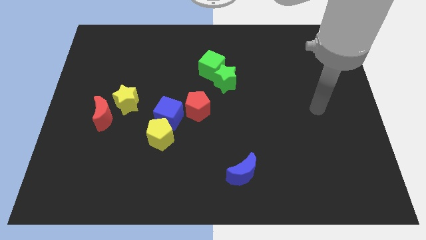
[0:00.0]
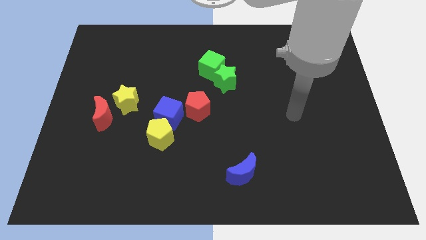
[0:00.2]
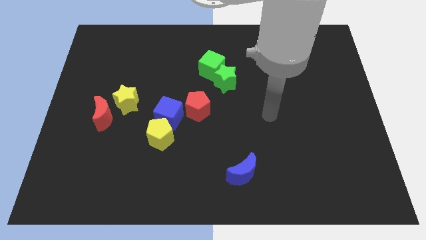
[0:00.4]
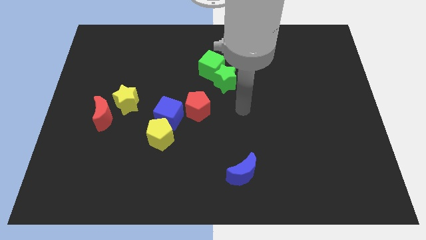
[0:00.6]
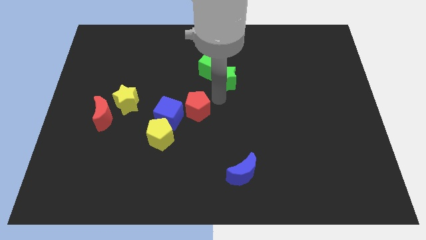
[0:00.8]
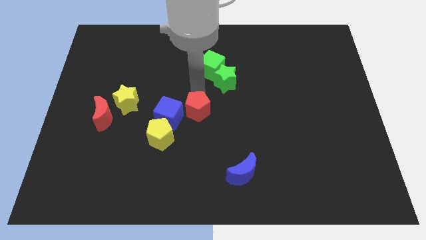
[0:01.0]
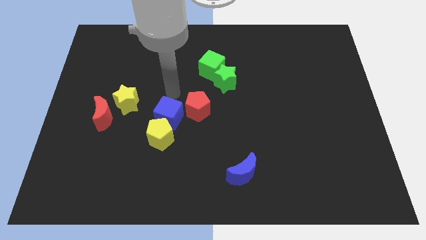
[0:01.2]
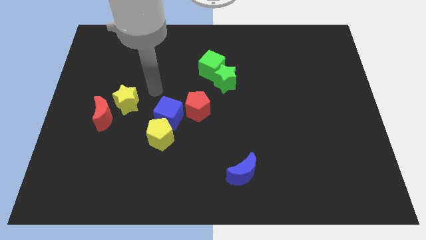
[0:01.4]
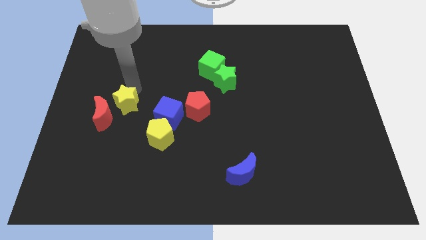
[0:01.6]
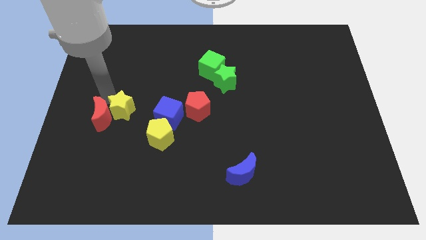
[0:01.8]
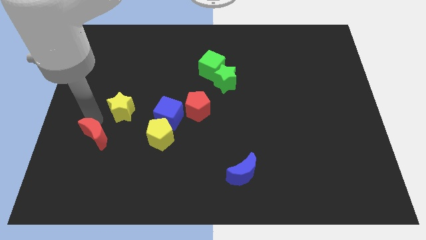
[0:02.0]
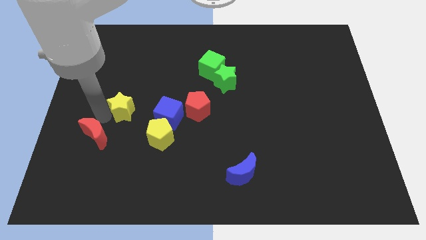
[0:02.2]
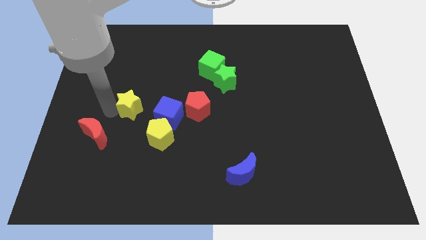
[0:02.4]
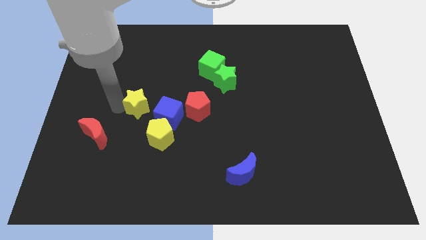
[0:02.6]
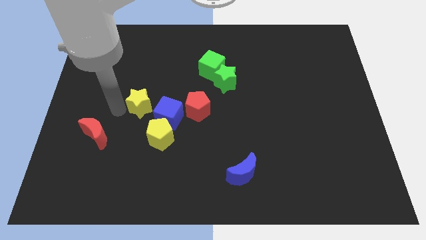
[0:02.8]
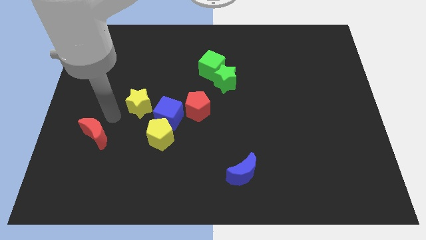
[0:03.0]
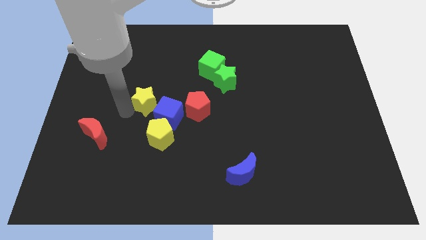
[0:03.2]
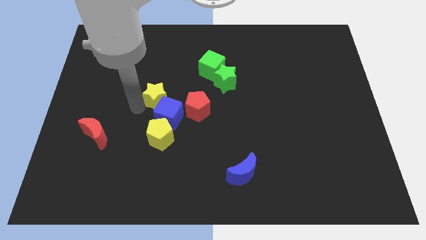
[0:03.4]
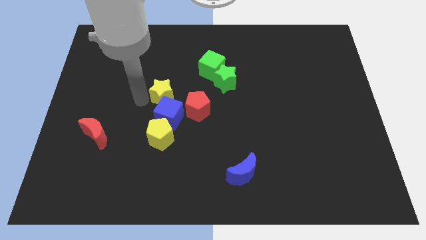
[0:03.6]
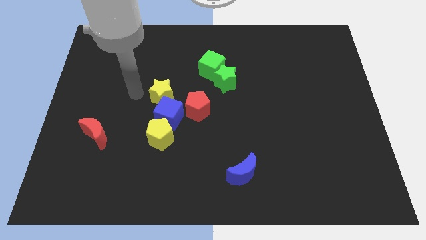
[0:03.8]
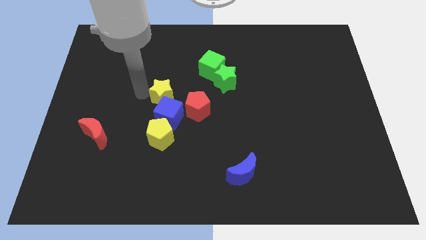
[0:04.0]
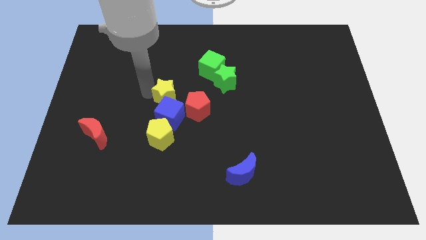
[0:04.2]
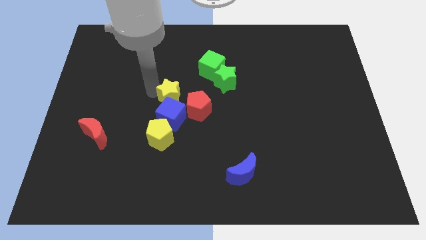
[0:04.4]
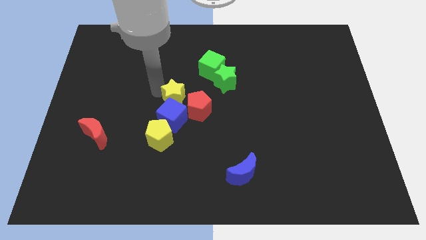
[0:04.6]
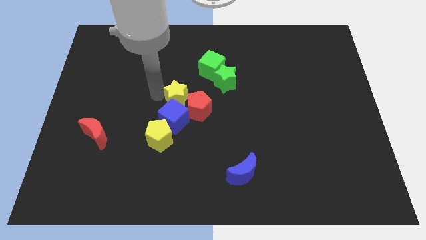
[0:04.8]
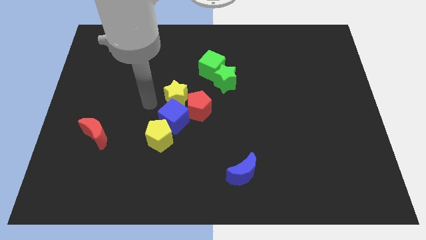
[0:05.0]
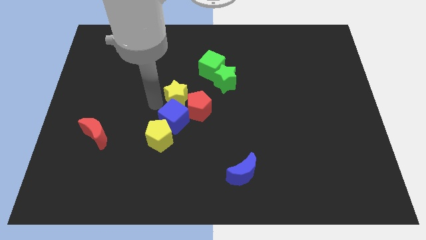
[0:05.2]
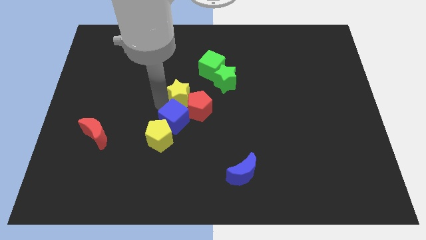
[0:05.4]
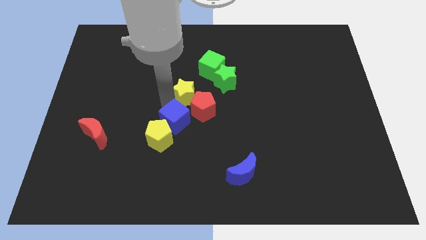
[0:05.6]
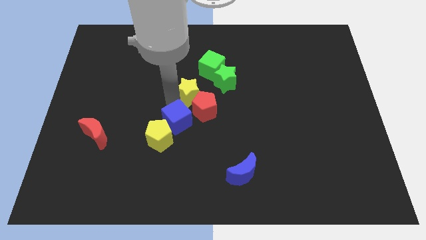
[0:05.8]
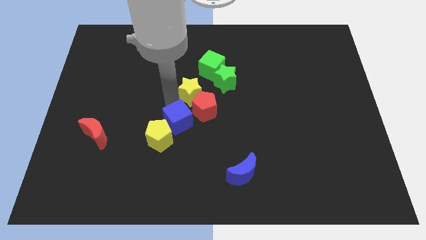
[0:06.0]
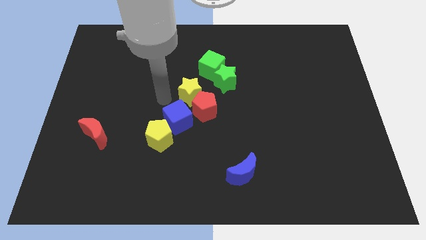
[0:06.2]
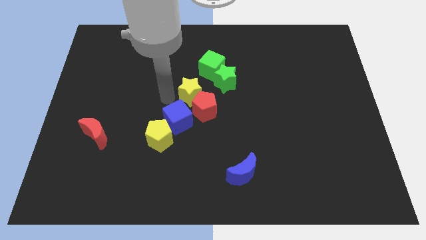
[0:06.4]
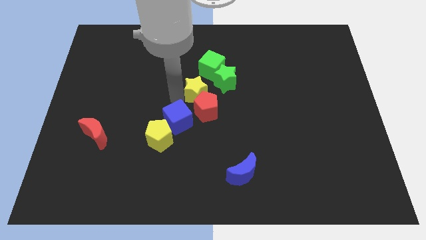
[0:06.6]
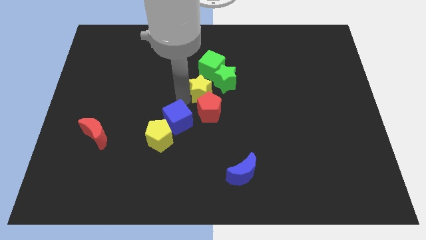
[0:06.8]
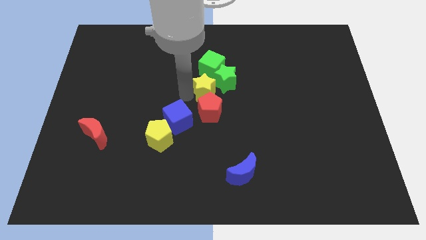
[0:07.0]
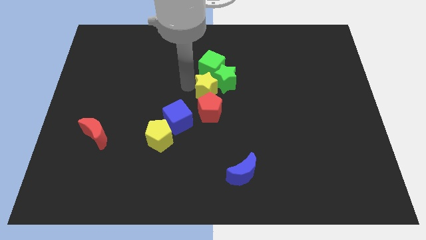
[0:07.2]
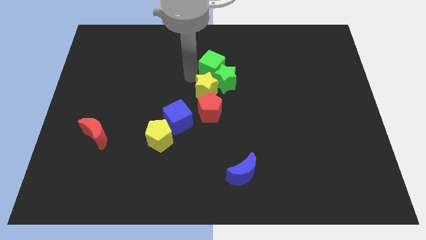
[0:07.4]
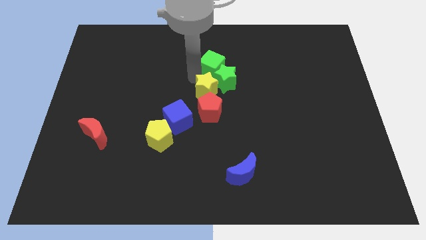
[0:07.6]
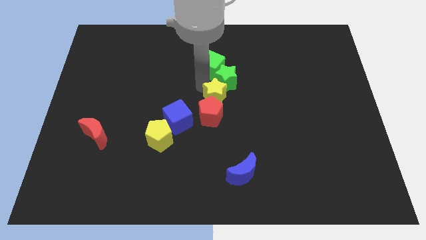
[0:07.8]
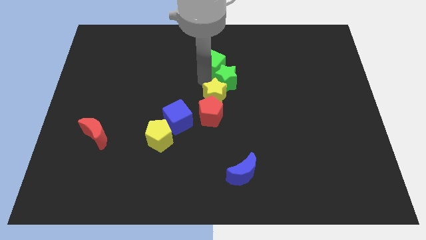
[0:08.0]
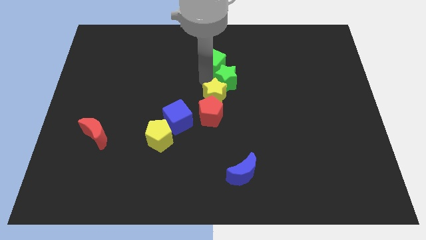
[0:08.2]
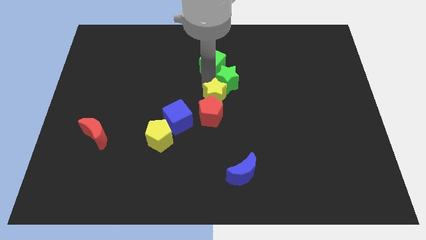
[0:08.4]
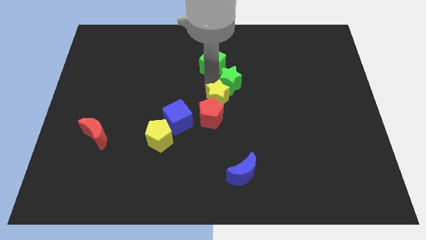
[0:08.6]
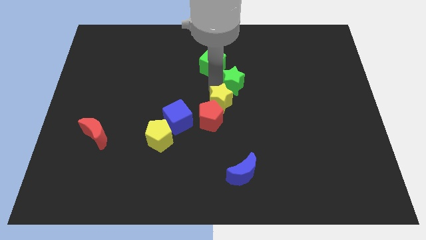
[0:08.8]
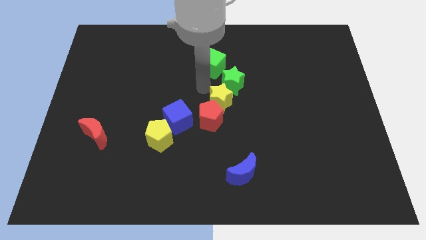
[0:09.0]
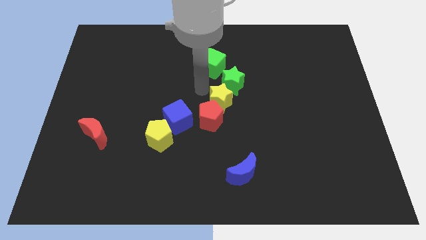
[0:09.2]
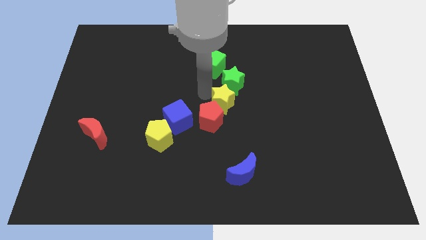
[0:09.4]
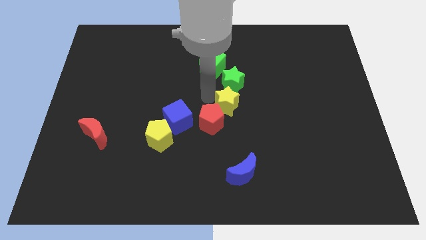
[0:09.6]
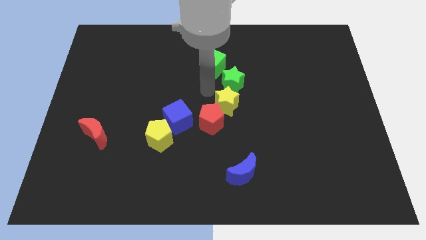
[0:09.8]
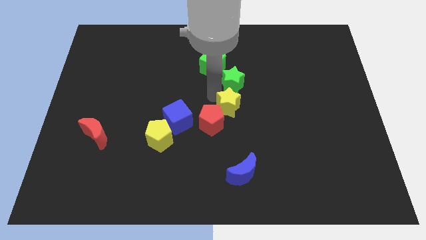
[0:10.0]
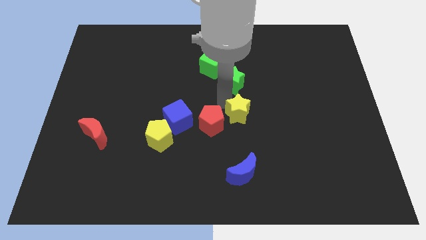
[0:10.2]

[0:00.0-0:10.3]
slide the yellow star above the blue moon
